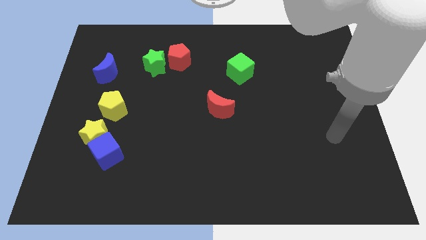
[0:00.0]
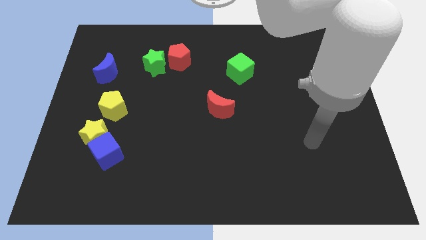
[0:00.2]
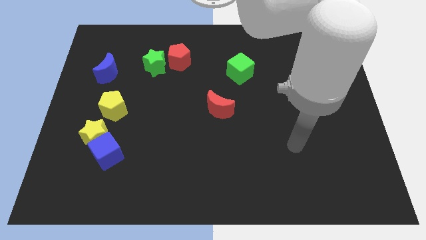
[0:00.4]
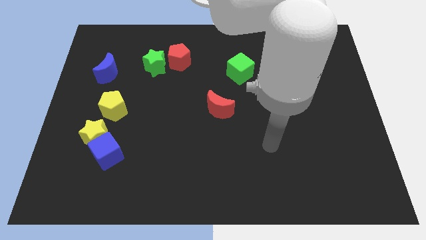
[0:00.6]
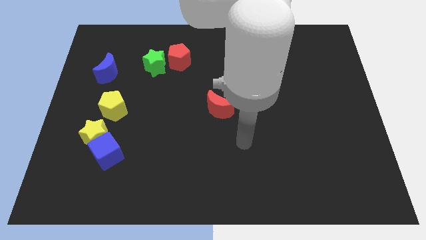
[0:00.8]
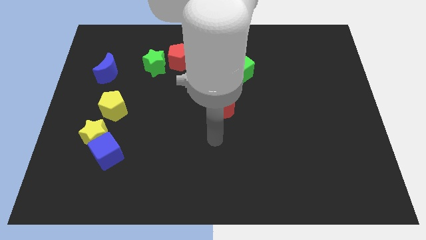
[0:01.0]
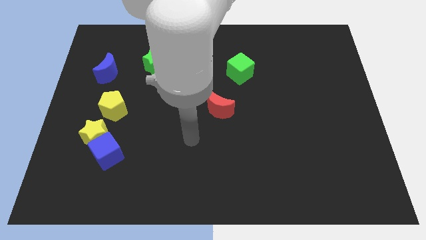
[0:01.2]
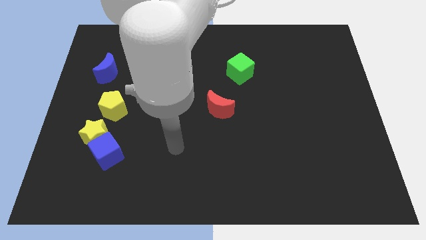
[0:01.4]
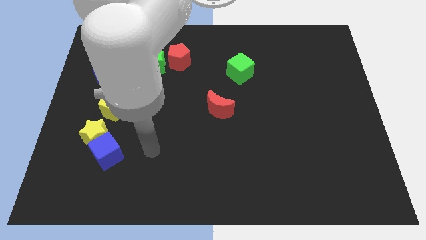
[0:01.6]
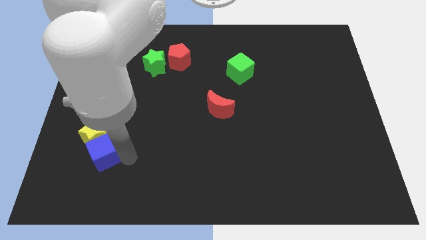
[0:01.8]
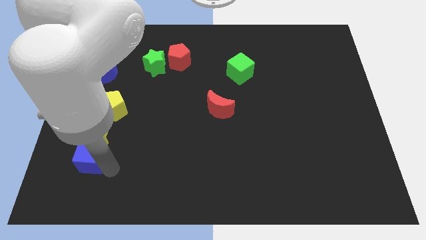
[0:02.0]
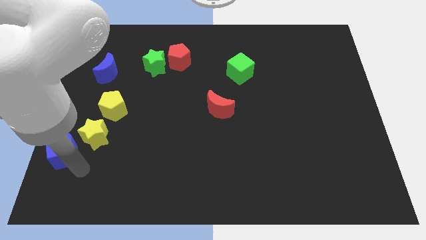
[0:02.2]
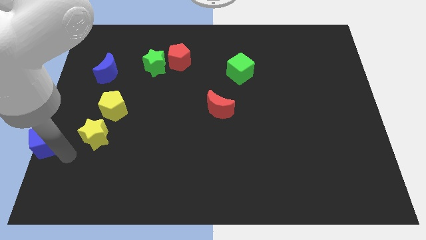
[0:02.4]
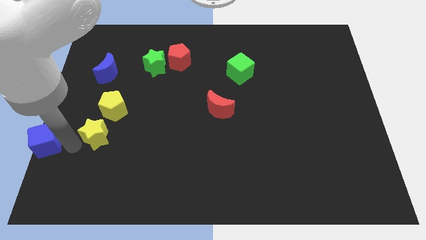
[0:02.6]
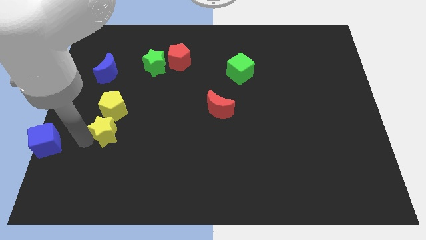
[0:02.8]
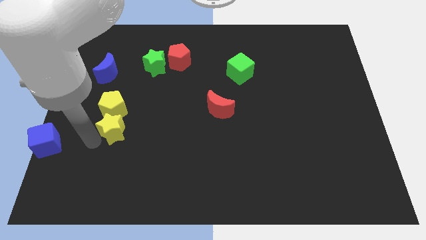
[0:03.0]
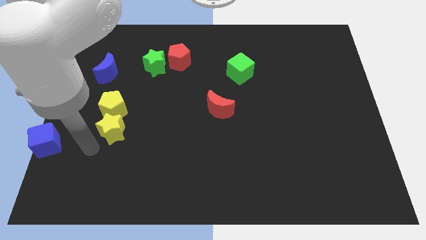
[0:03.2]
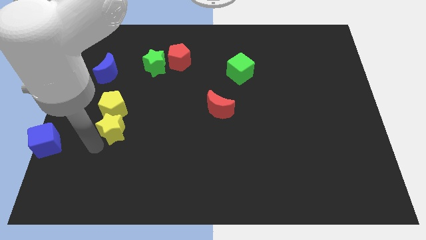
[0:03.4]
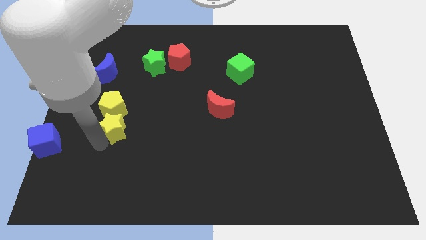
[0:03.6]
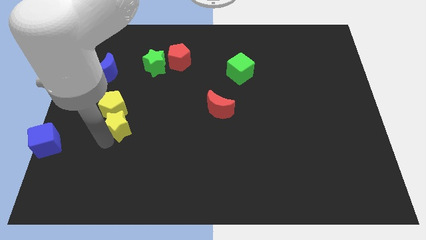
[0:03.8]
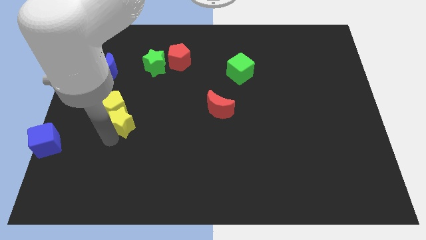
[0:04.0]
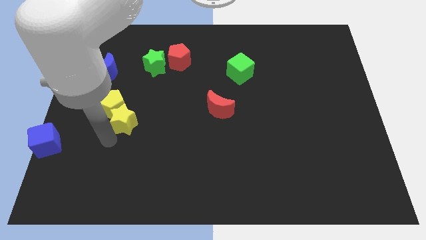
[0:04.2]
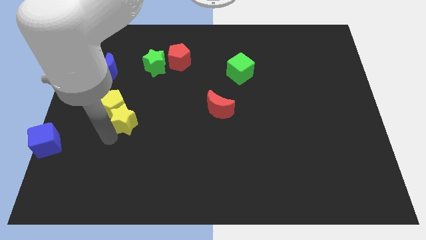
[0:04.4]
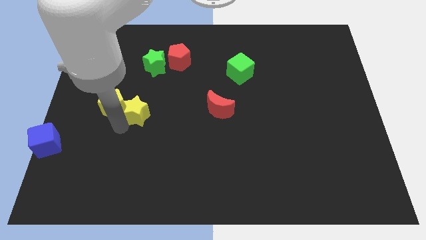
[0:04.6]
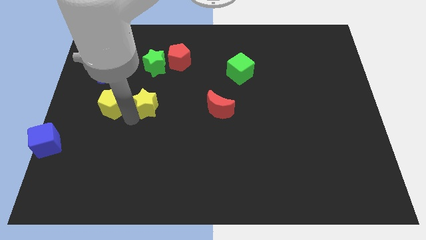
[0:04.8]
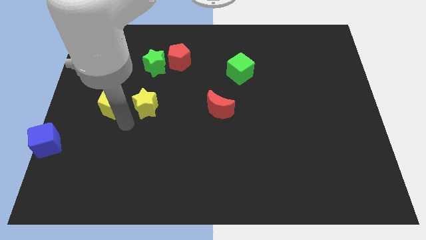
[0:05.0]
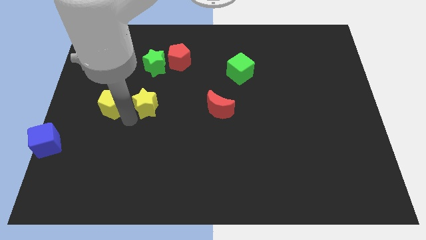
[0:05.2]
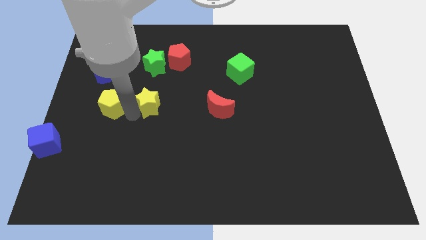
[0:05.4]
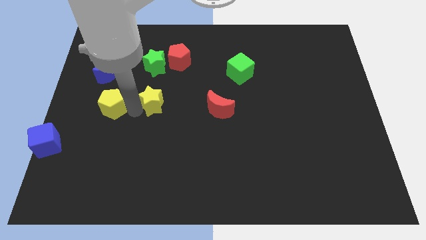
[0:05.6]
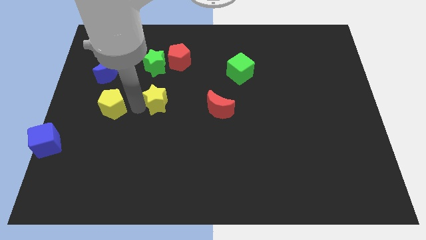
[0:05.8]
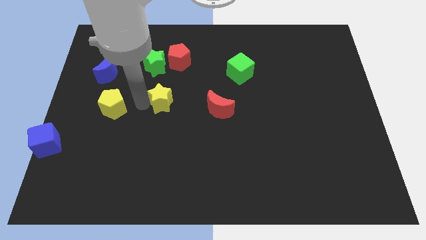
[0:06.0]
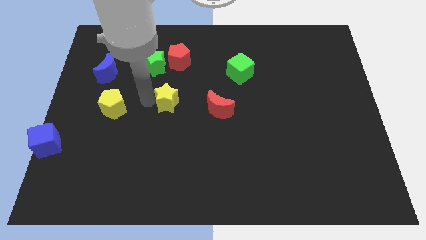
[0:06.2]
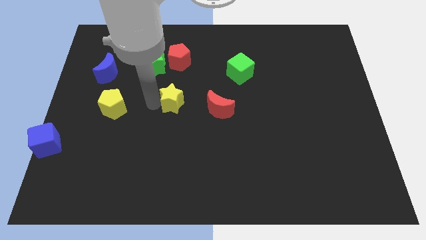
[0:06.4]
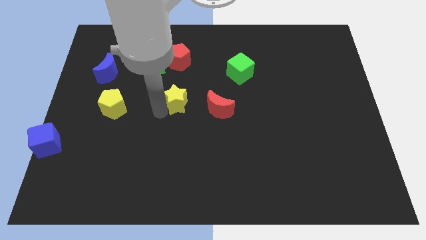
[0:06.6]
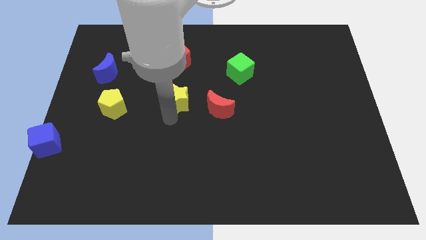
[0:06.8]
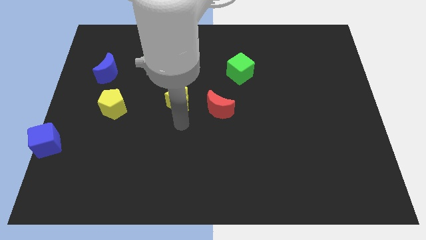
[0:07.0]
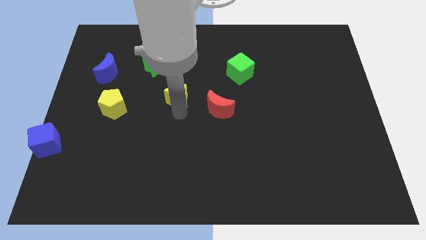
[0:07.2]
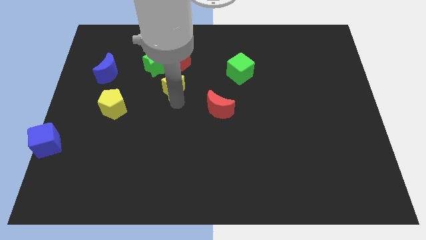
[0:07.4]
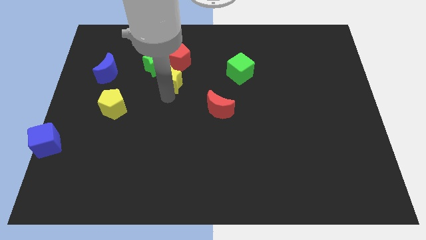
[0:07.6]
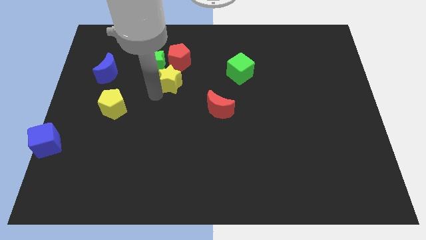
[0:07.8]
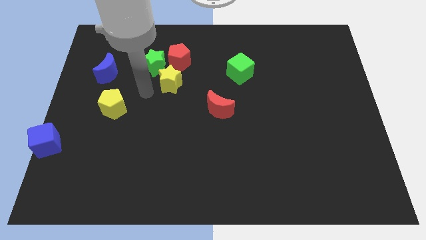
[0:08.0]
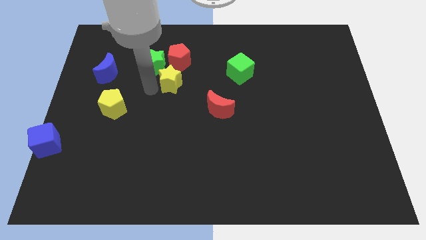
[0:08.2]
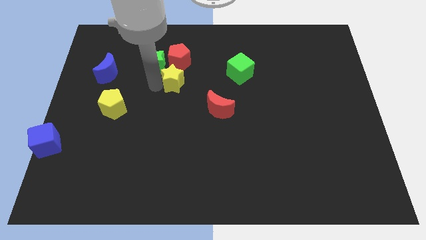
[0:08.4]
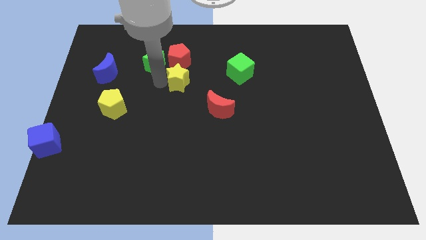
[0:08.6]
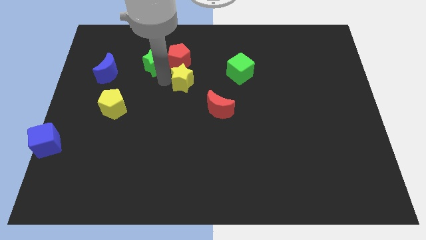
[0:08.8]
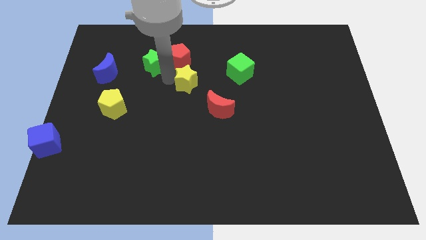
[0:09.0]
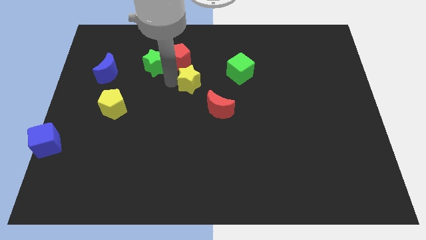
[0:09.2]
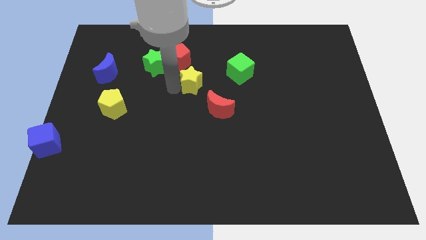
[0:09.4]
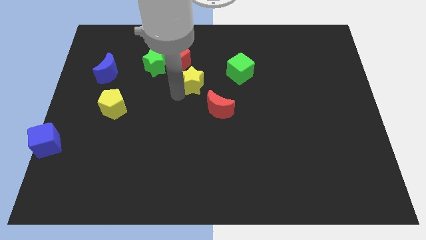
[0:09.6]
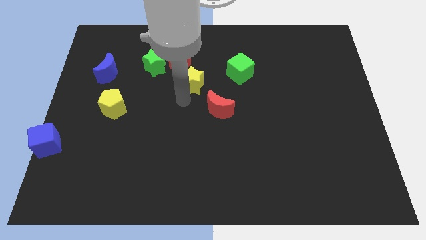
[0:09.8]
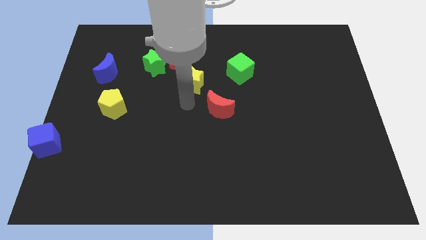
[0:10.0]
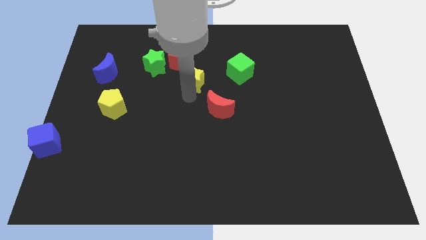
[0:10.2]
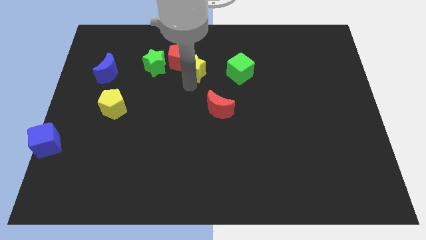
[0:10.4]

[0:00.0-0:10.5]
move the yellow star just right of the red pentagon

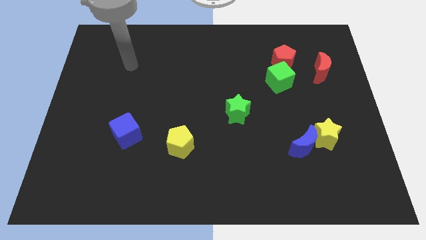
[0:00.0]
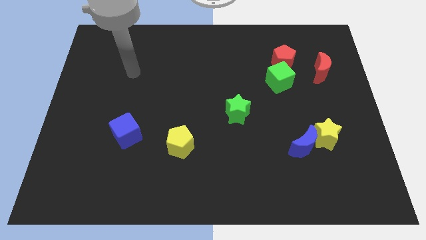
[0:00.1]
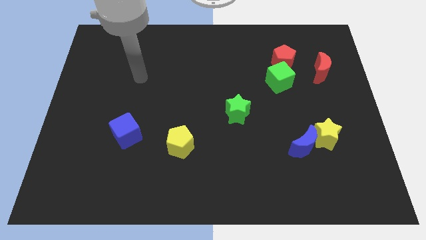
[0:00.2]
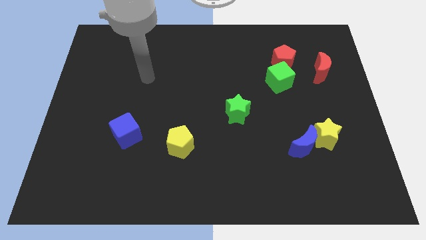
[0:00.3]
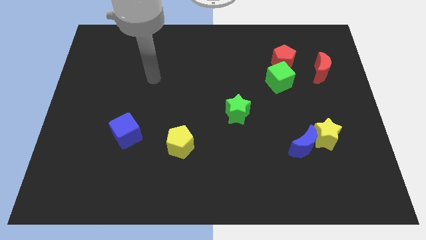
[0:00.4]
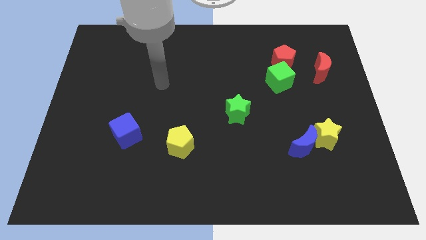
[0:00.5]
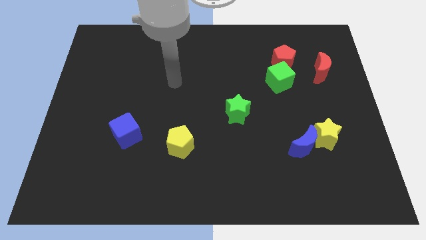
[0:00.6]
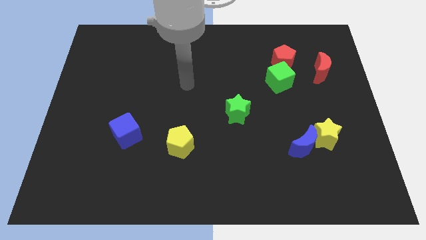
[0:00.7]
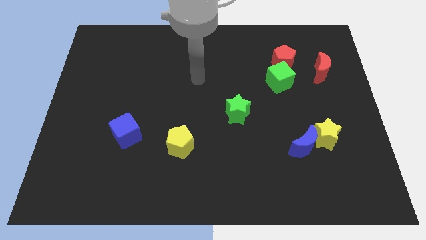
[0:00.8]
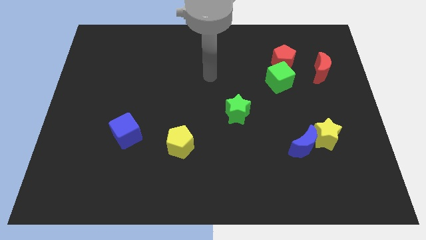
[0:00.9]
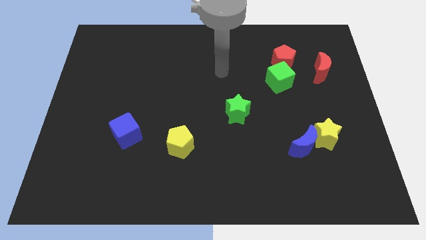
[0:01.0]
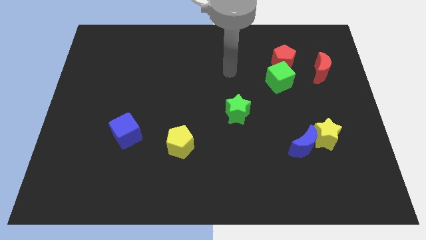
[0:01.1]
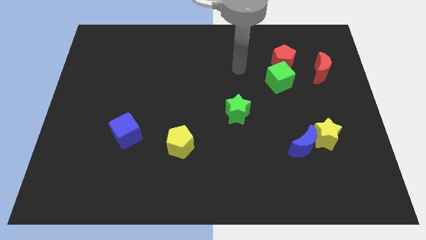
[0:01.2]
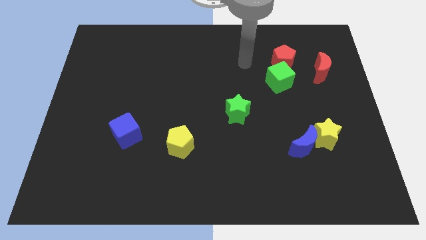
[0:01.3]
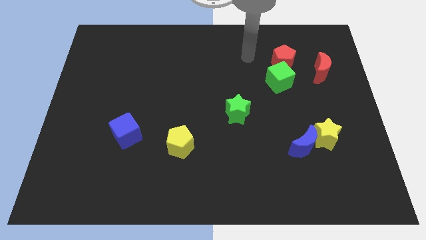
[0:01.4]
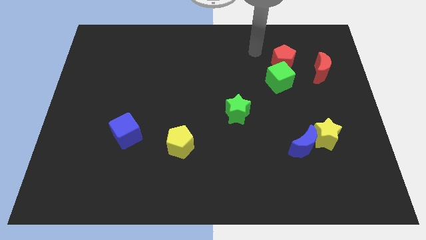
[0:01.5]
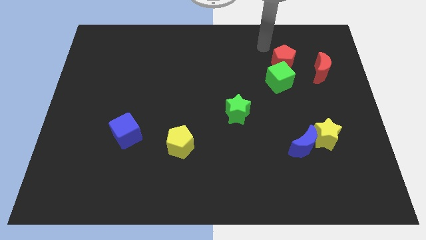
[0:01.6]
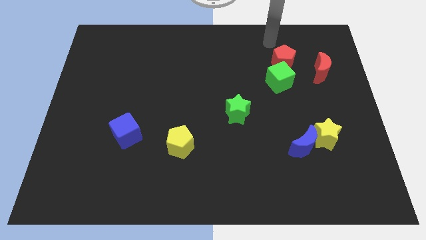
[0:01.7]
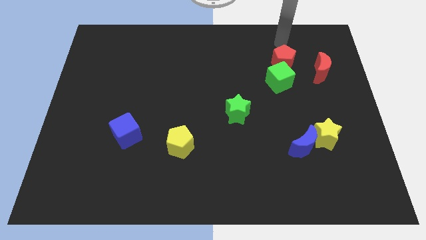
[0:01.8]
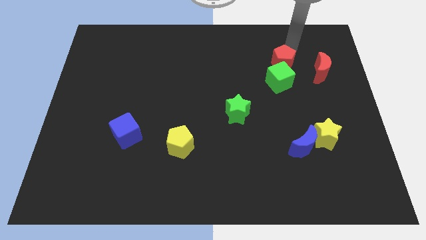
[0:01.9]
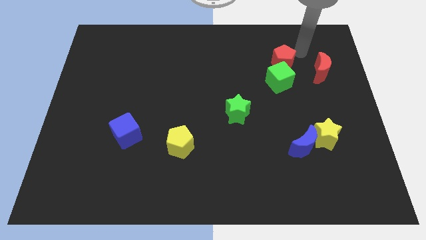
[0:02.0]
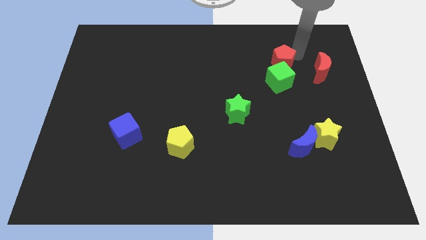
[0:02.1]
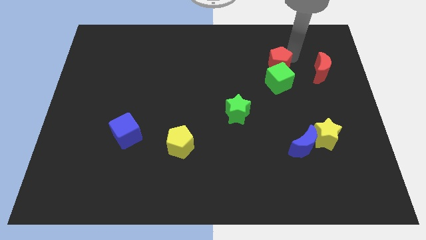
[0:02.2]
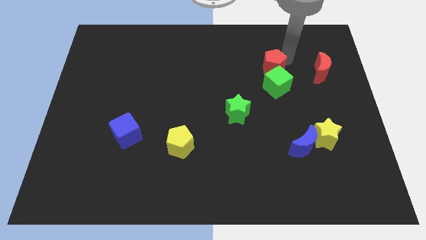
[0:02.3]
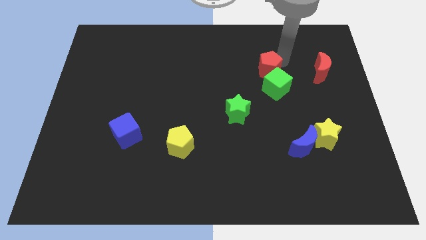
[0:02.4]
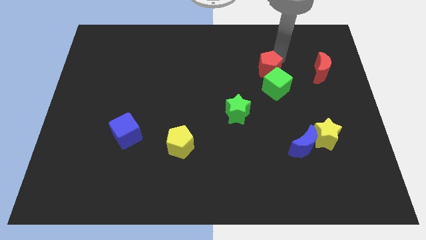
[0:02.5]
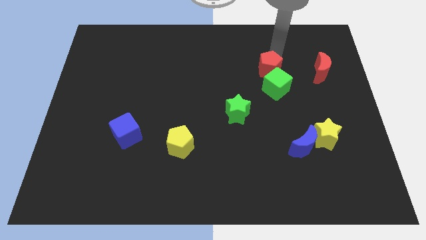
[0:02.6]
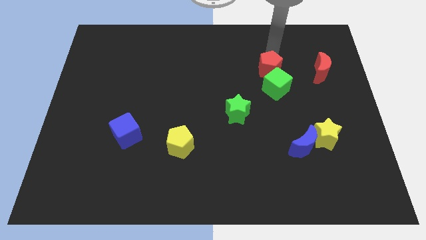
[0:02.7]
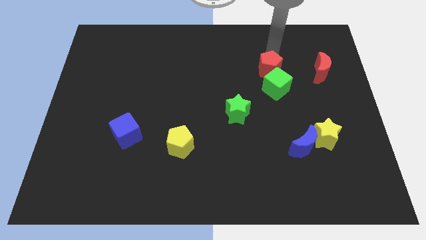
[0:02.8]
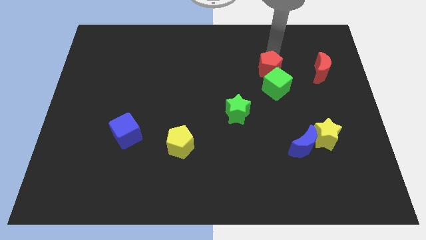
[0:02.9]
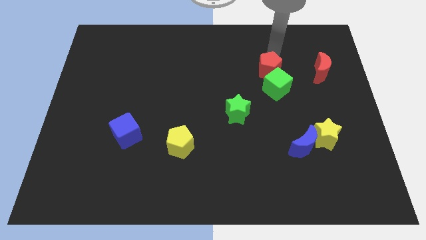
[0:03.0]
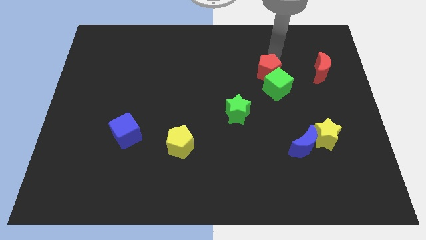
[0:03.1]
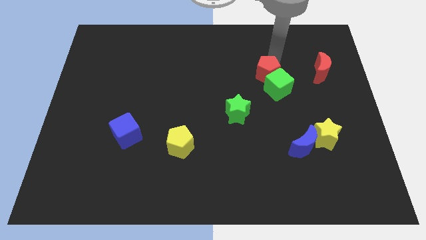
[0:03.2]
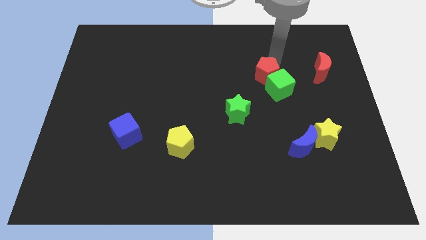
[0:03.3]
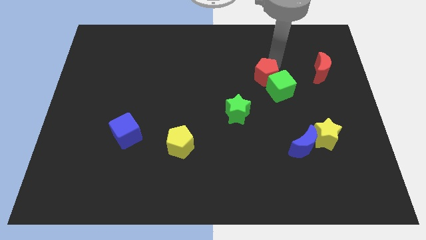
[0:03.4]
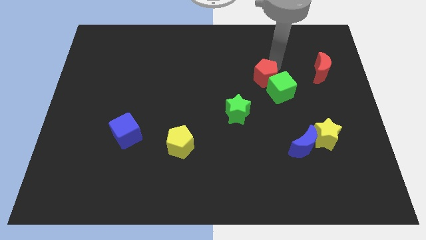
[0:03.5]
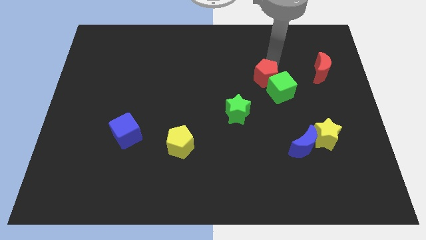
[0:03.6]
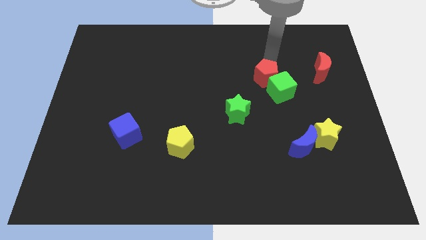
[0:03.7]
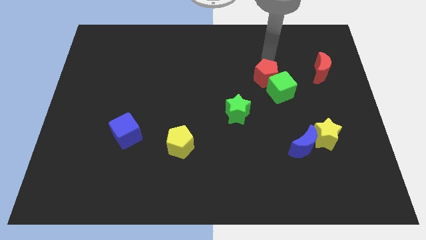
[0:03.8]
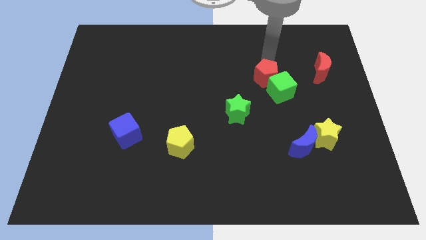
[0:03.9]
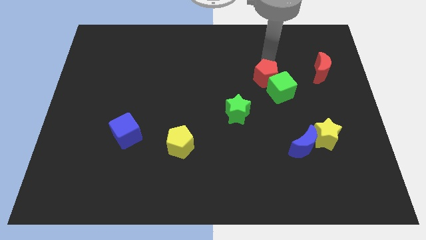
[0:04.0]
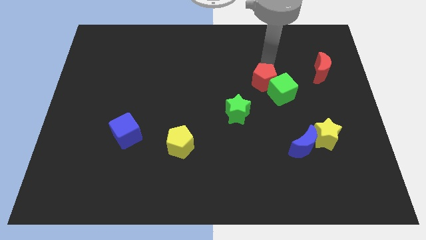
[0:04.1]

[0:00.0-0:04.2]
push the red pentagon to the top right of the green star
